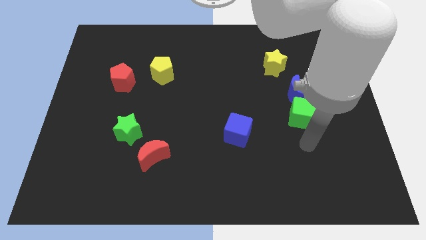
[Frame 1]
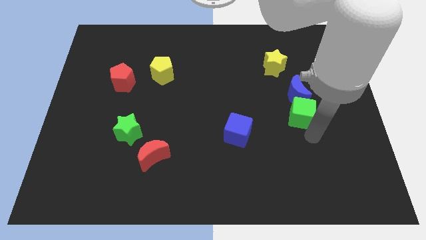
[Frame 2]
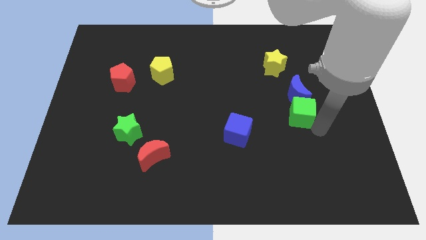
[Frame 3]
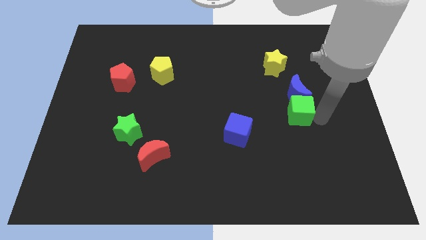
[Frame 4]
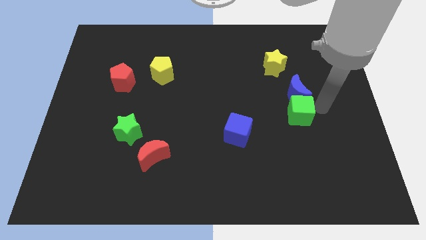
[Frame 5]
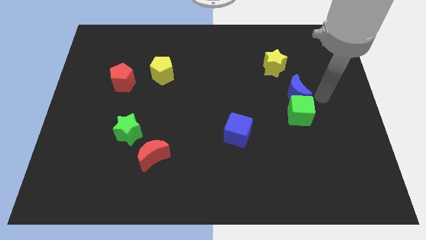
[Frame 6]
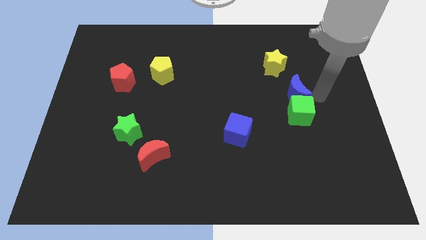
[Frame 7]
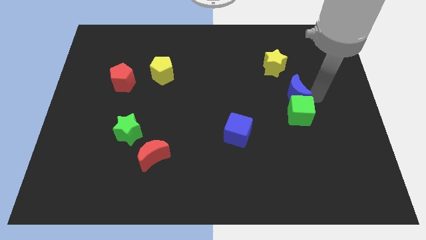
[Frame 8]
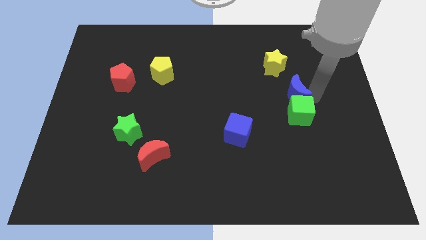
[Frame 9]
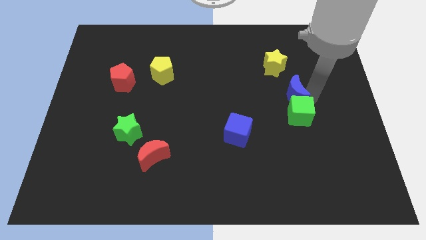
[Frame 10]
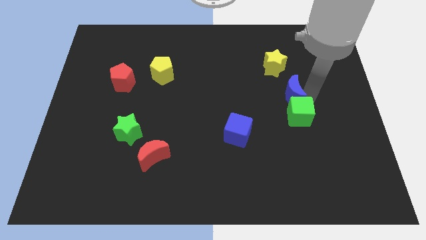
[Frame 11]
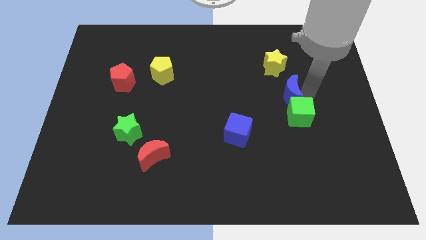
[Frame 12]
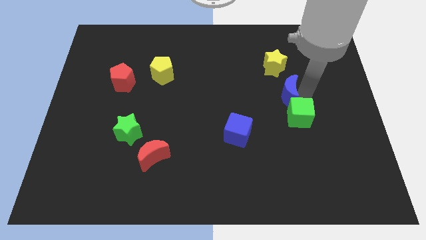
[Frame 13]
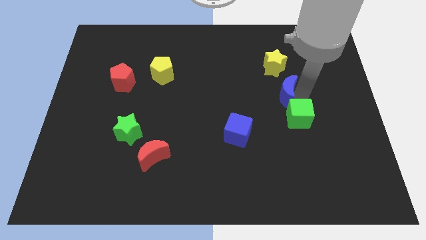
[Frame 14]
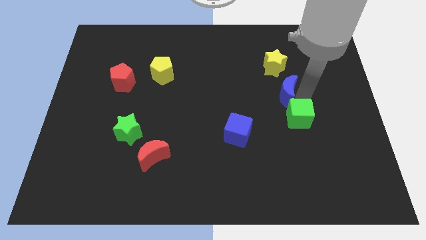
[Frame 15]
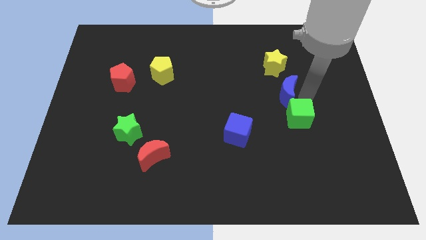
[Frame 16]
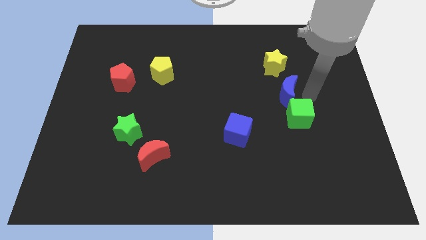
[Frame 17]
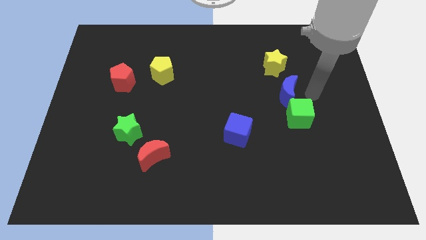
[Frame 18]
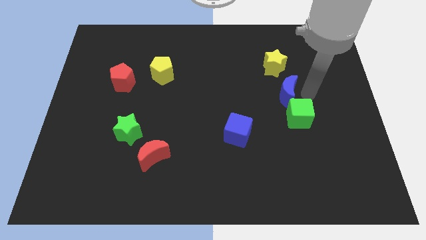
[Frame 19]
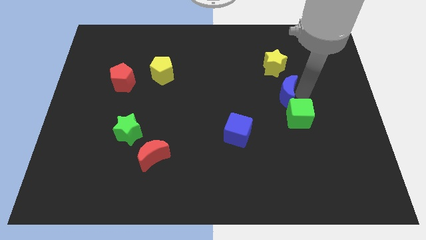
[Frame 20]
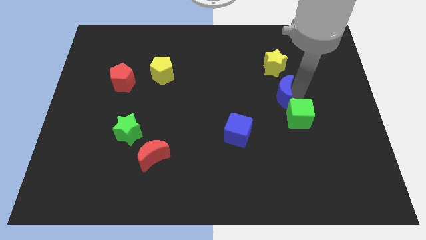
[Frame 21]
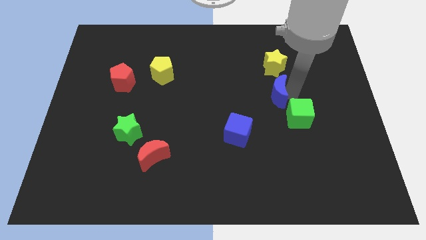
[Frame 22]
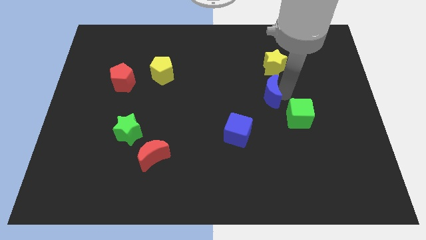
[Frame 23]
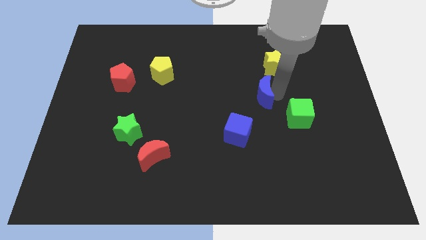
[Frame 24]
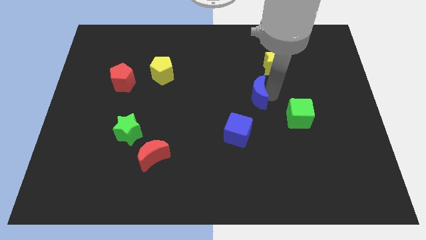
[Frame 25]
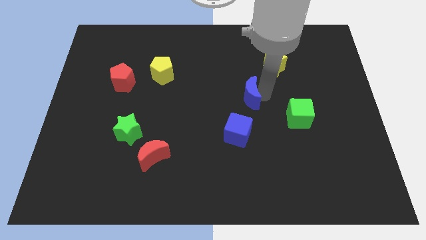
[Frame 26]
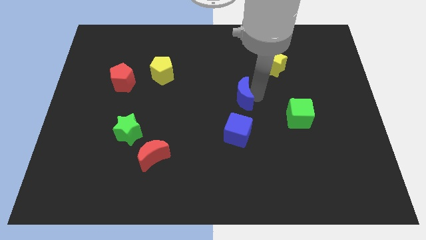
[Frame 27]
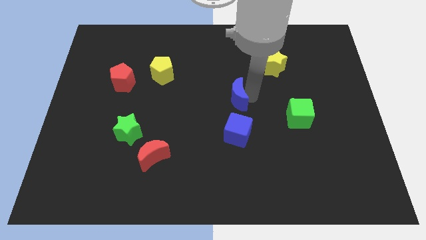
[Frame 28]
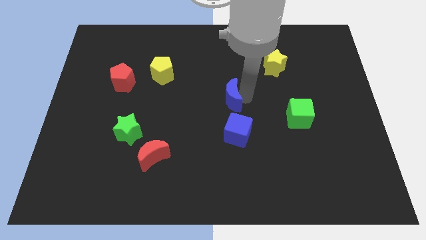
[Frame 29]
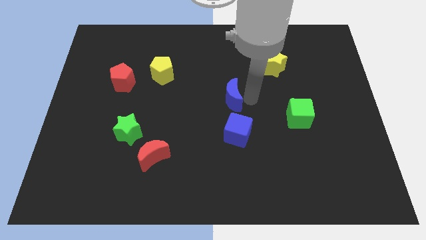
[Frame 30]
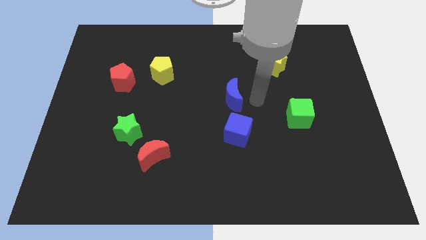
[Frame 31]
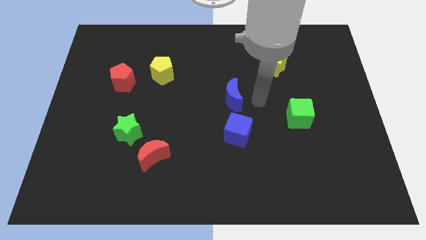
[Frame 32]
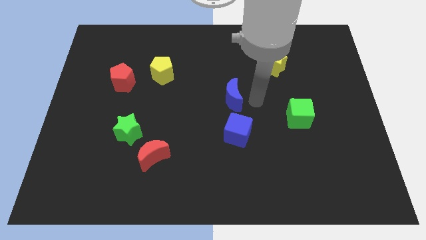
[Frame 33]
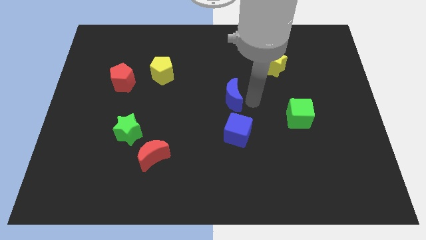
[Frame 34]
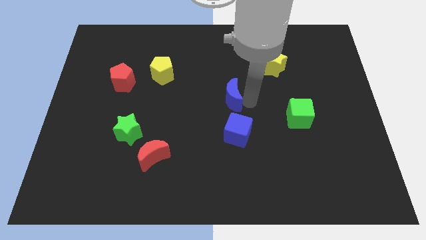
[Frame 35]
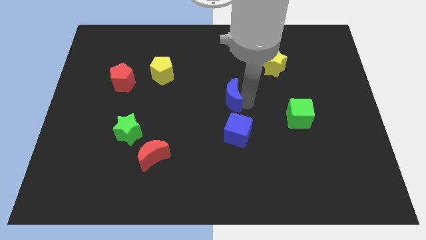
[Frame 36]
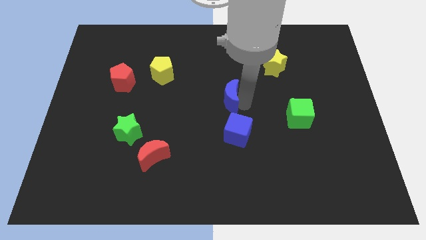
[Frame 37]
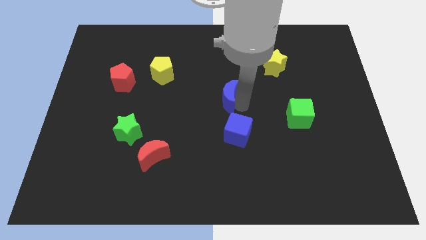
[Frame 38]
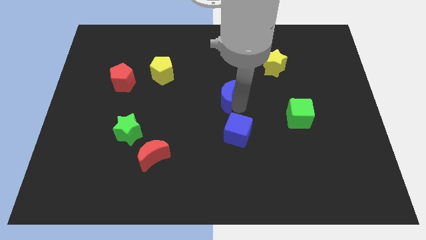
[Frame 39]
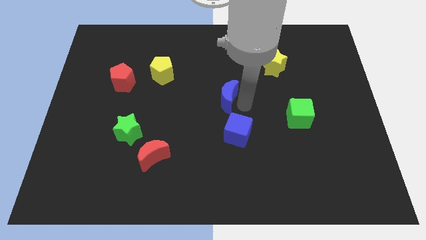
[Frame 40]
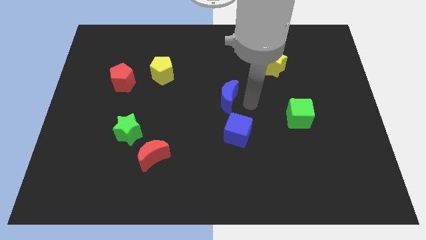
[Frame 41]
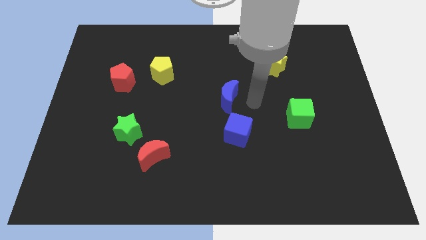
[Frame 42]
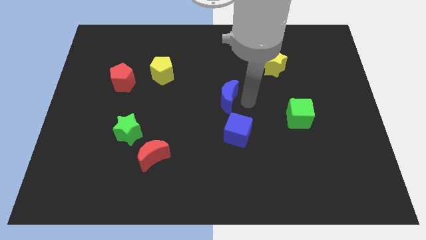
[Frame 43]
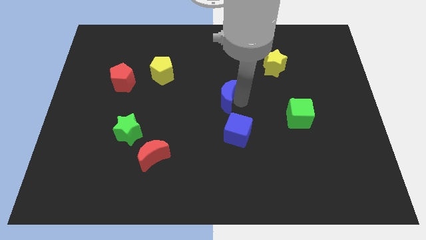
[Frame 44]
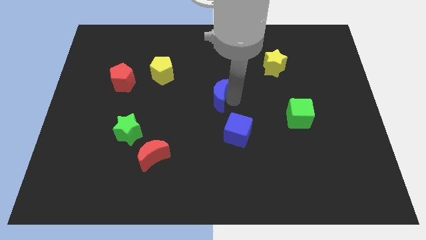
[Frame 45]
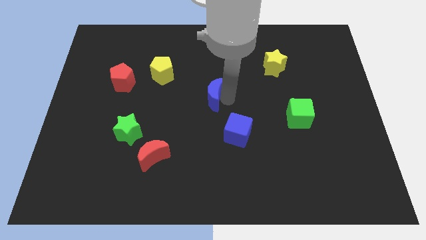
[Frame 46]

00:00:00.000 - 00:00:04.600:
push the blue moon left

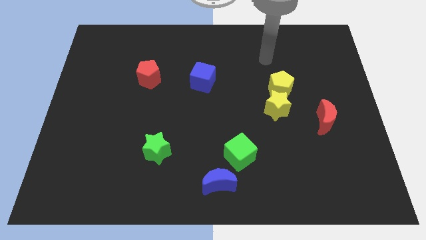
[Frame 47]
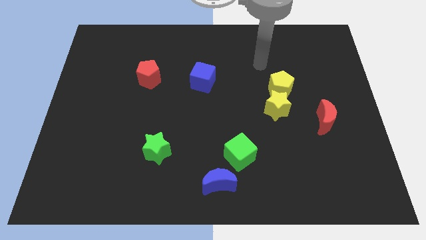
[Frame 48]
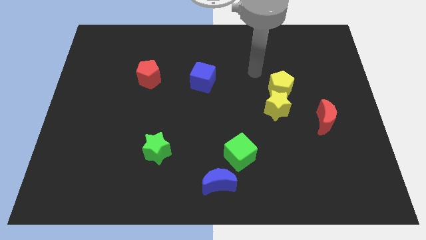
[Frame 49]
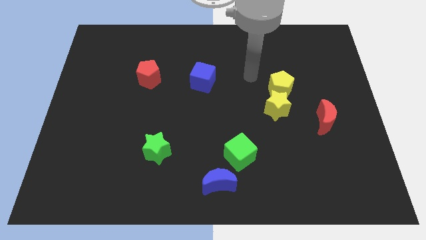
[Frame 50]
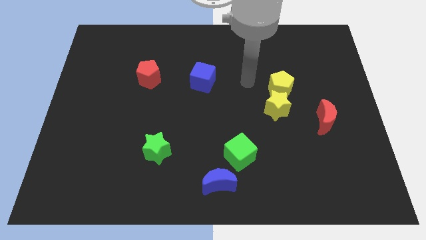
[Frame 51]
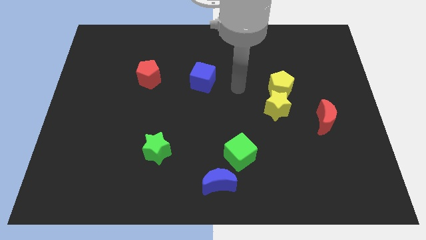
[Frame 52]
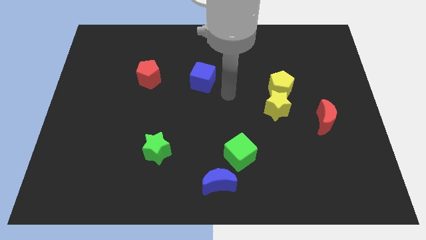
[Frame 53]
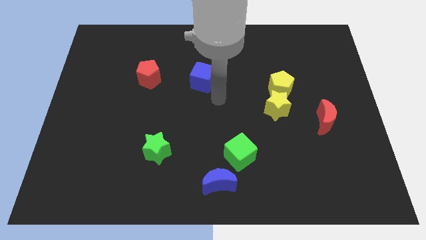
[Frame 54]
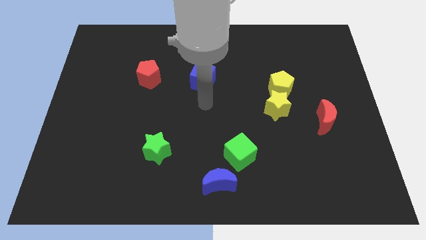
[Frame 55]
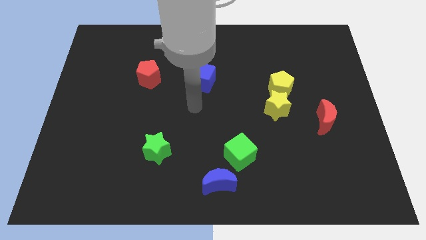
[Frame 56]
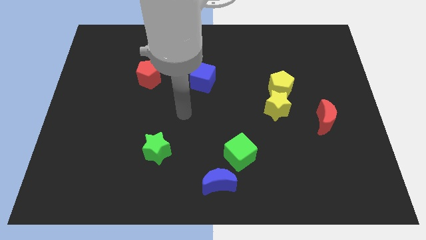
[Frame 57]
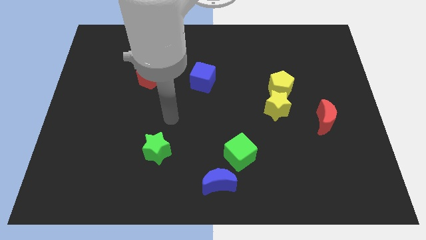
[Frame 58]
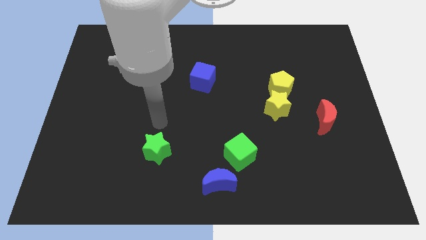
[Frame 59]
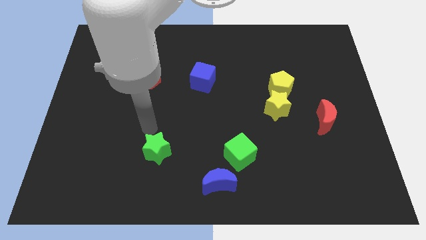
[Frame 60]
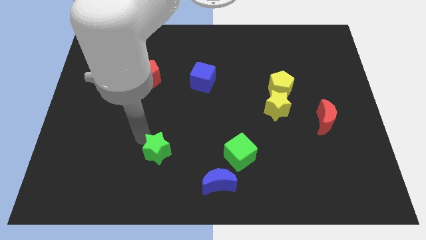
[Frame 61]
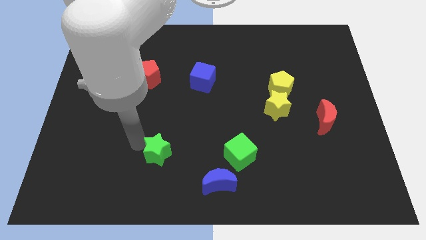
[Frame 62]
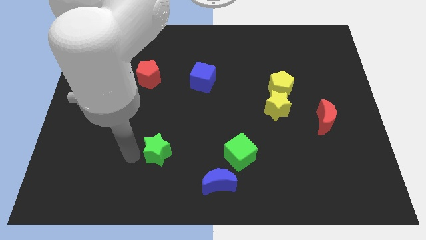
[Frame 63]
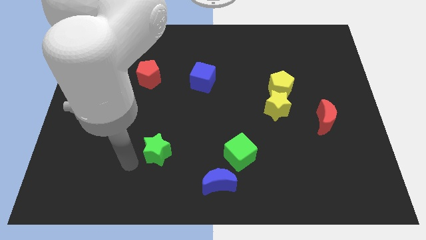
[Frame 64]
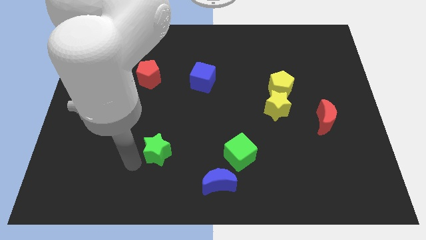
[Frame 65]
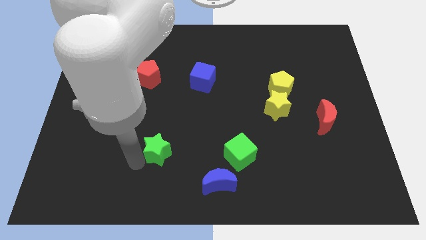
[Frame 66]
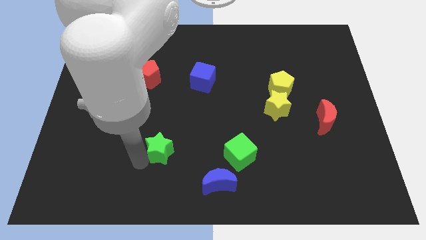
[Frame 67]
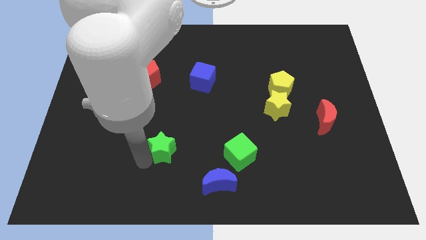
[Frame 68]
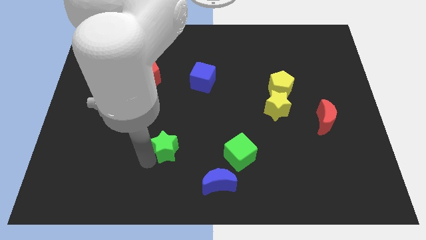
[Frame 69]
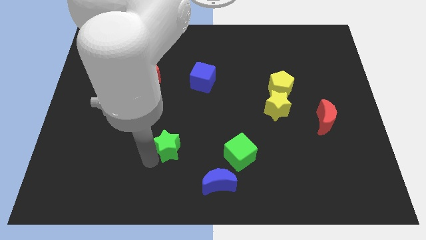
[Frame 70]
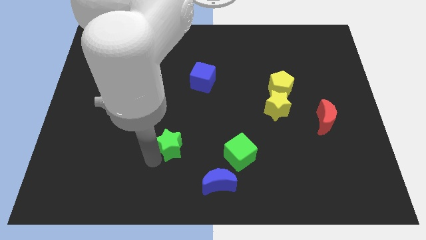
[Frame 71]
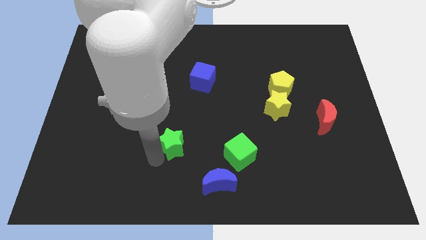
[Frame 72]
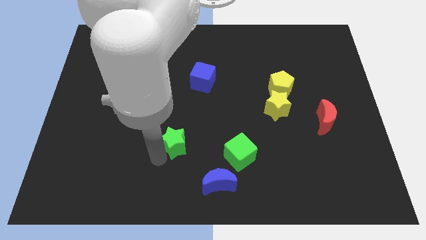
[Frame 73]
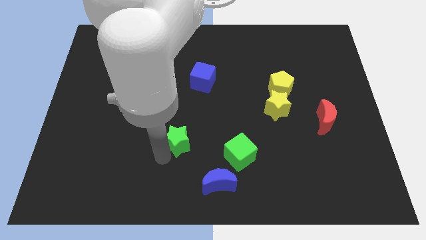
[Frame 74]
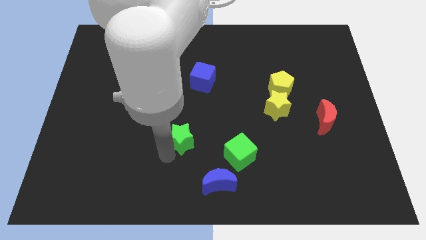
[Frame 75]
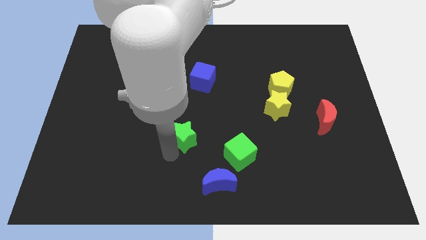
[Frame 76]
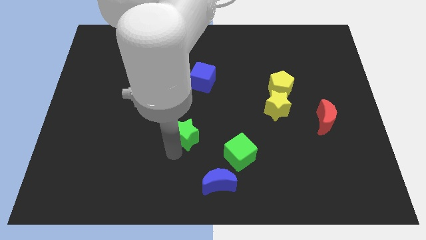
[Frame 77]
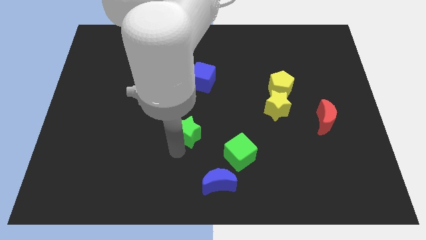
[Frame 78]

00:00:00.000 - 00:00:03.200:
move the green star up and right diagonally a little
